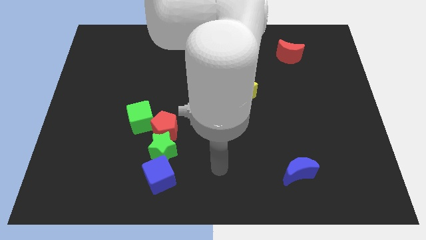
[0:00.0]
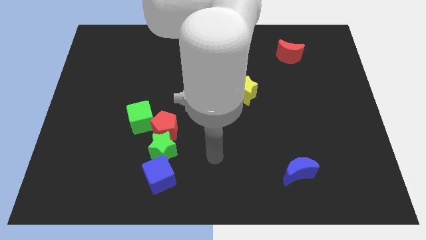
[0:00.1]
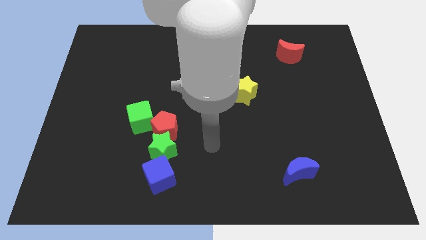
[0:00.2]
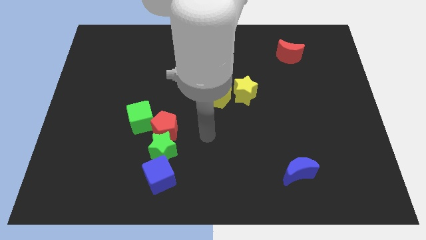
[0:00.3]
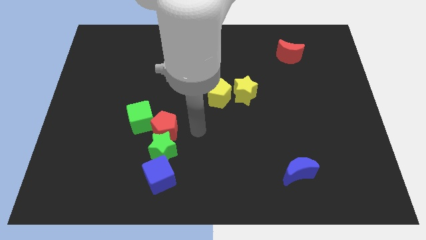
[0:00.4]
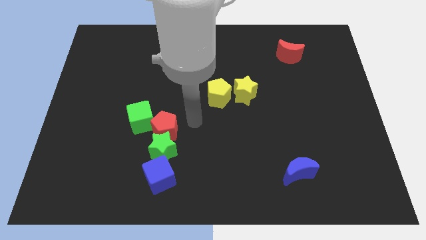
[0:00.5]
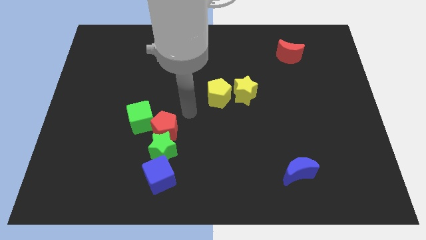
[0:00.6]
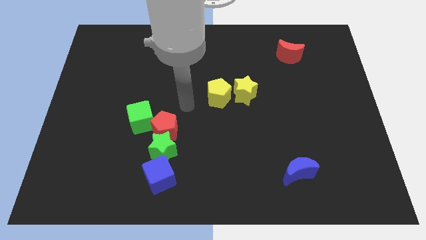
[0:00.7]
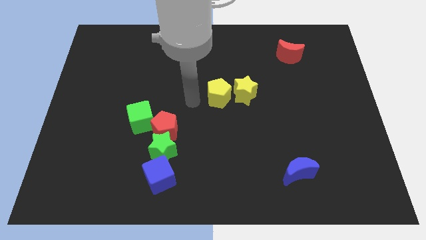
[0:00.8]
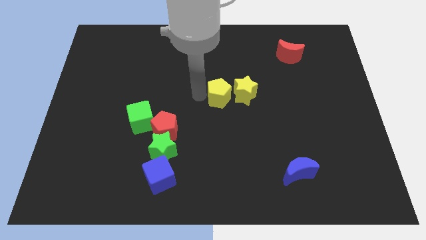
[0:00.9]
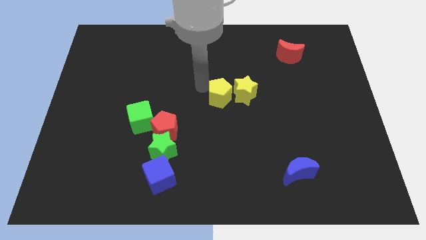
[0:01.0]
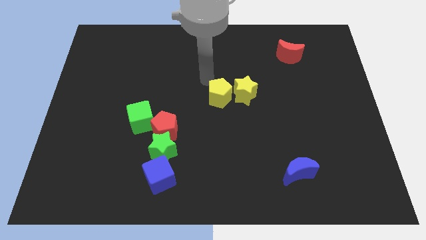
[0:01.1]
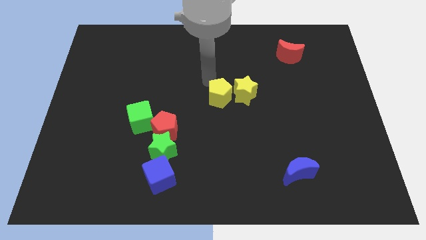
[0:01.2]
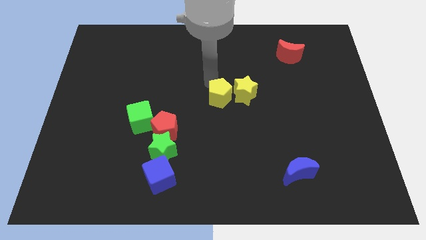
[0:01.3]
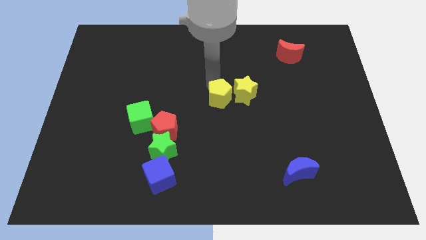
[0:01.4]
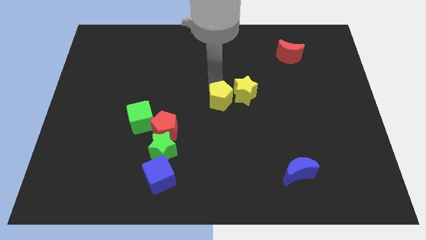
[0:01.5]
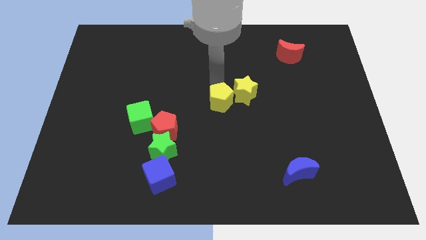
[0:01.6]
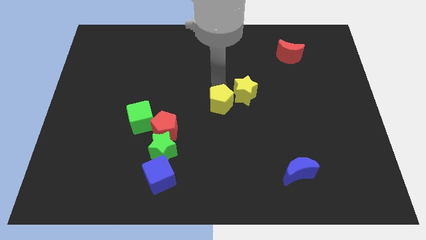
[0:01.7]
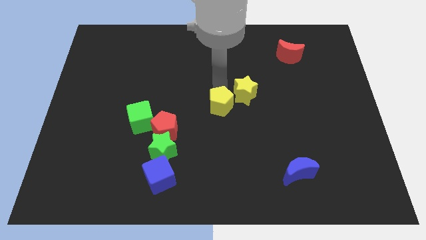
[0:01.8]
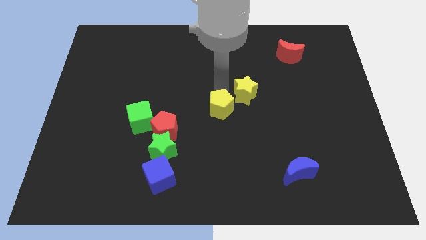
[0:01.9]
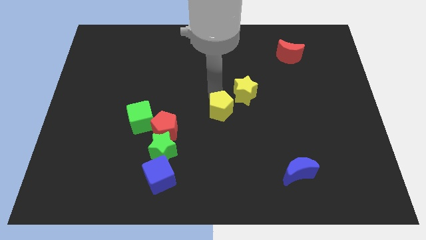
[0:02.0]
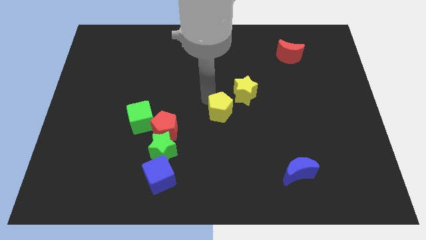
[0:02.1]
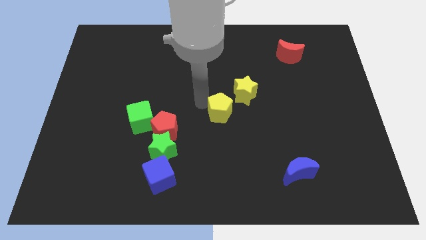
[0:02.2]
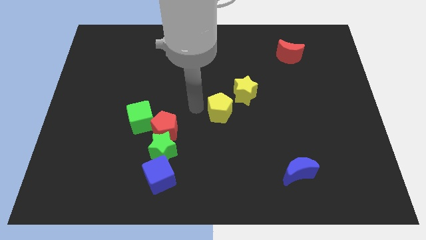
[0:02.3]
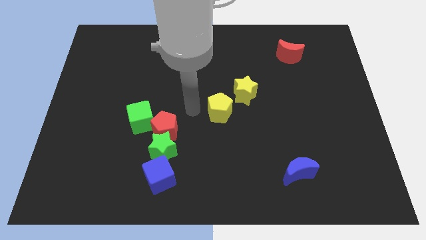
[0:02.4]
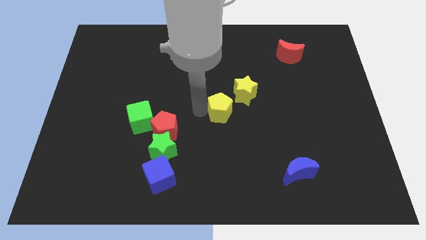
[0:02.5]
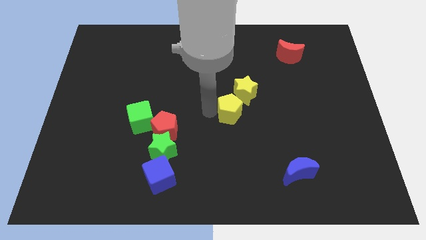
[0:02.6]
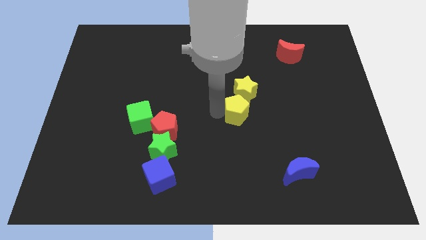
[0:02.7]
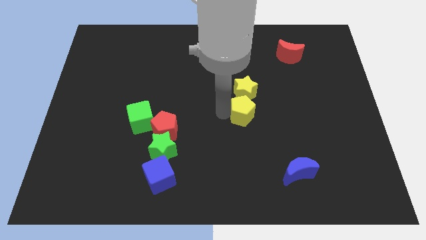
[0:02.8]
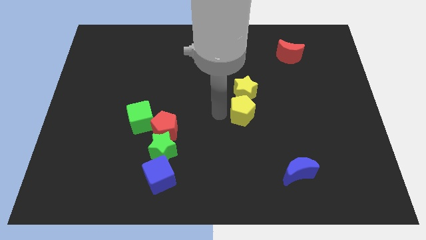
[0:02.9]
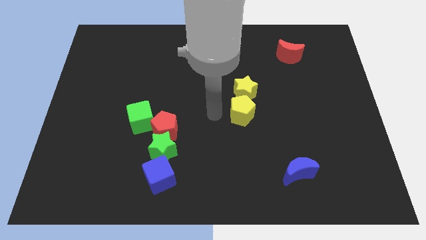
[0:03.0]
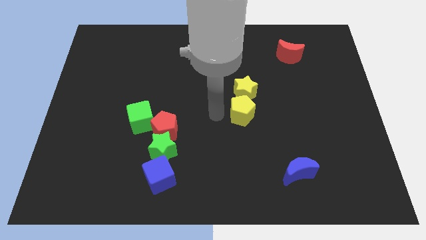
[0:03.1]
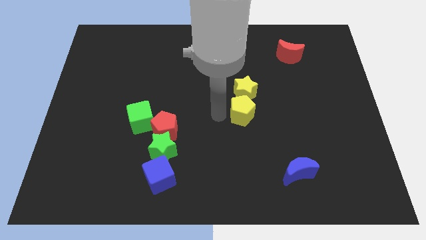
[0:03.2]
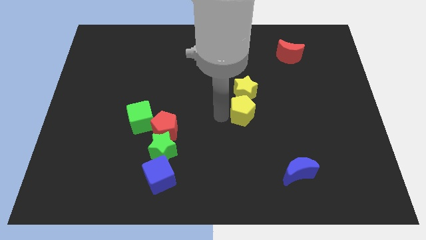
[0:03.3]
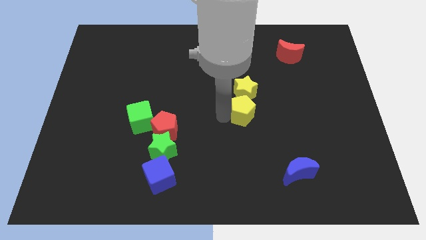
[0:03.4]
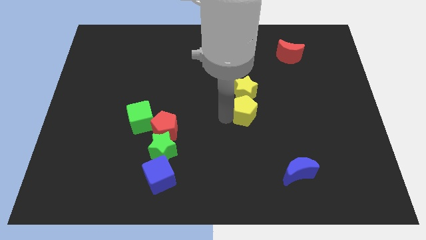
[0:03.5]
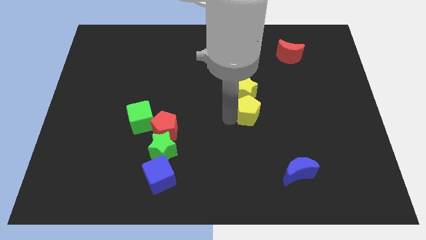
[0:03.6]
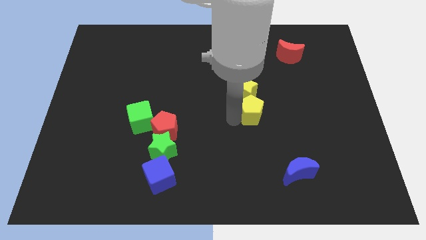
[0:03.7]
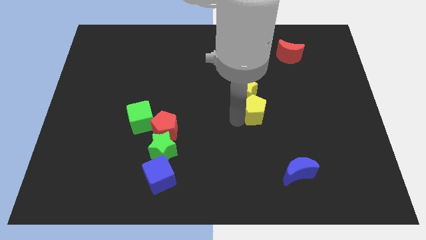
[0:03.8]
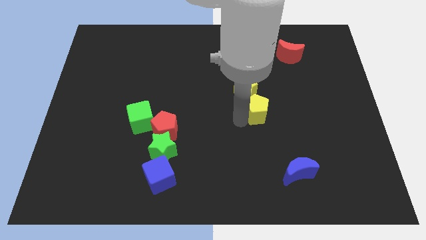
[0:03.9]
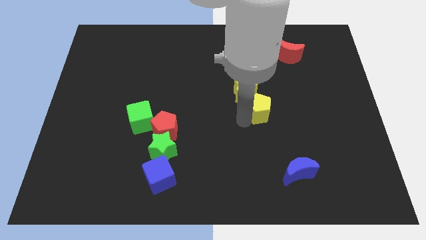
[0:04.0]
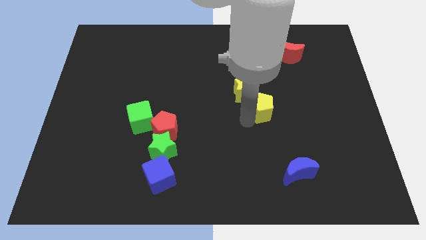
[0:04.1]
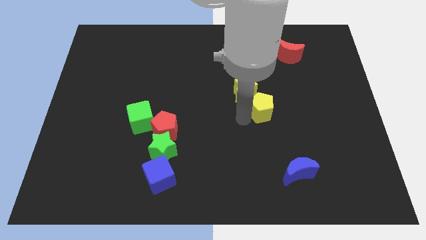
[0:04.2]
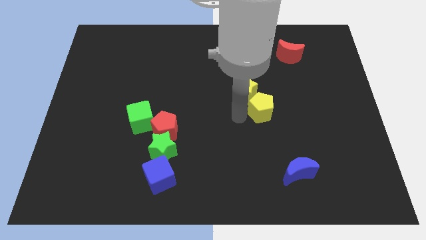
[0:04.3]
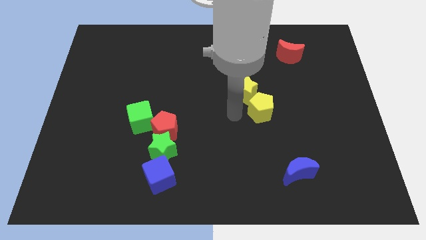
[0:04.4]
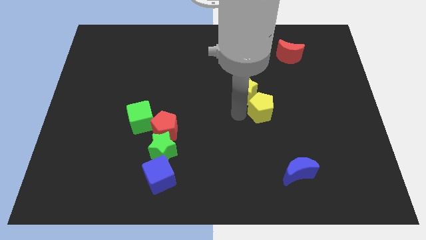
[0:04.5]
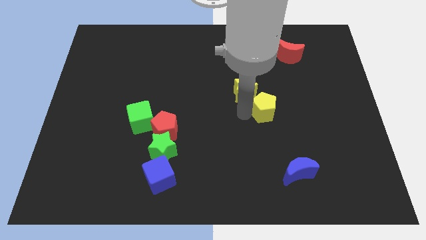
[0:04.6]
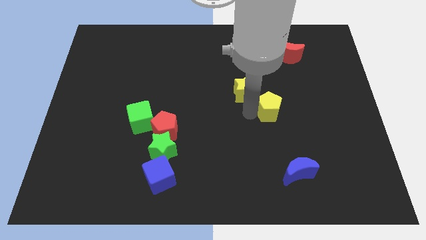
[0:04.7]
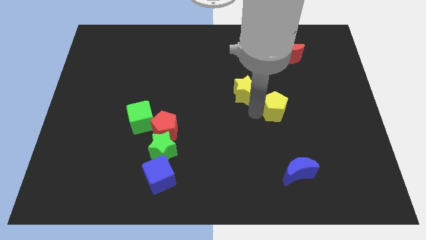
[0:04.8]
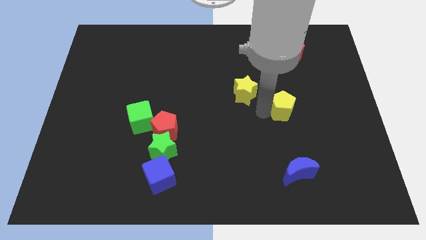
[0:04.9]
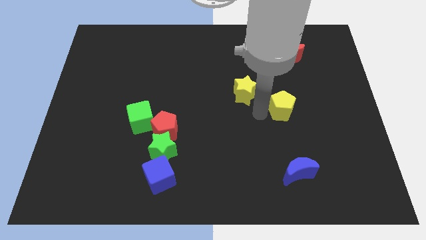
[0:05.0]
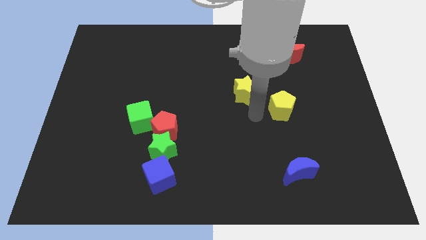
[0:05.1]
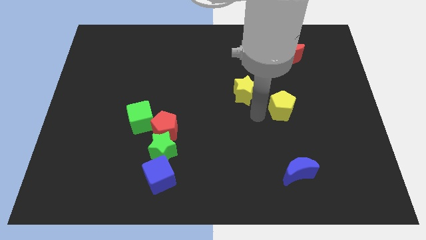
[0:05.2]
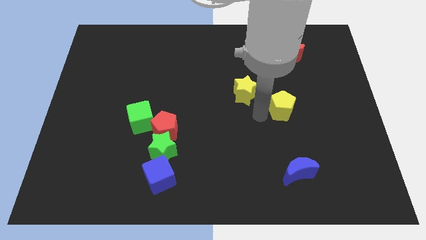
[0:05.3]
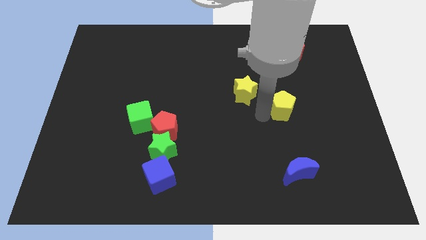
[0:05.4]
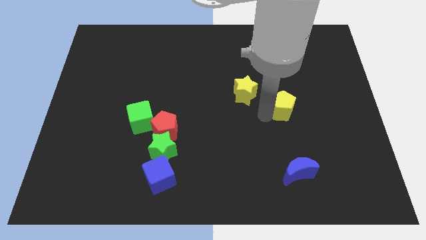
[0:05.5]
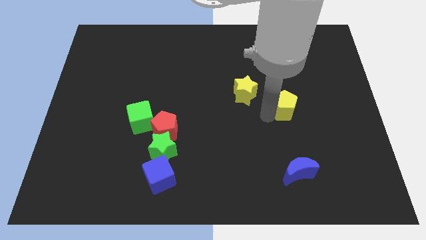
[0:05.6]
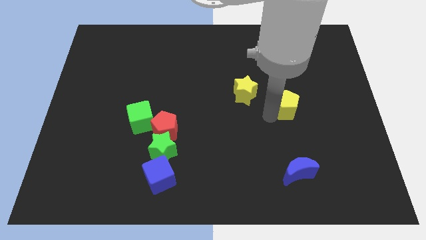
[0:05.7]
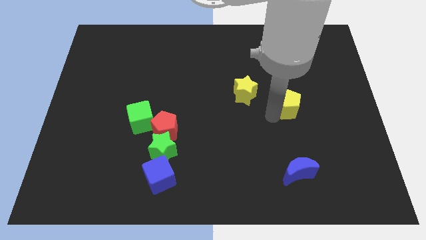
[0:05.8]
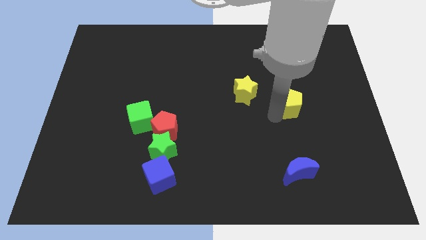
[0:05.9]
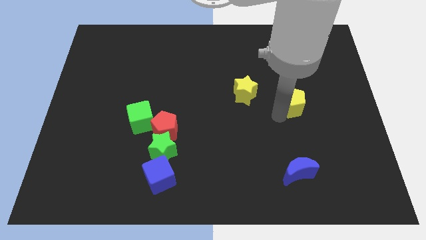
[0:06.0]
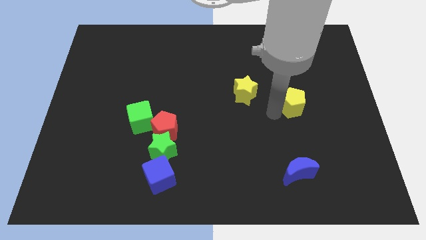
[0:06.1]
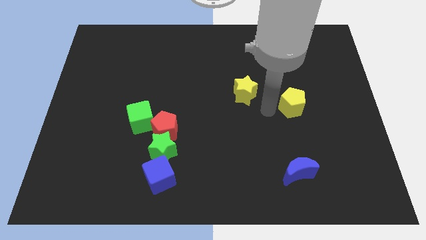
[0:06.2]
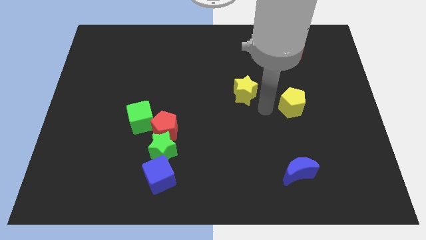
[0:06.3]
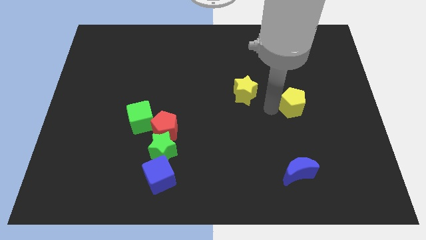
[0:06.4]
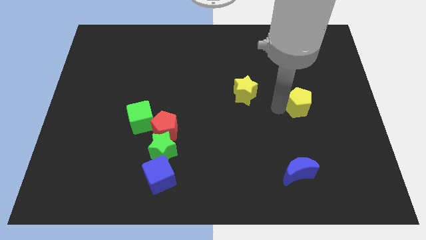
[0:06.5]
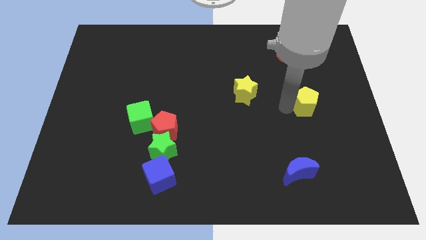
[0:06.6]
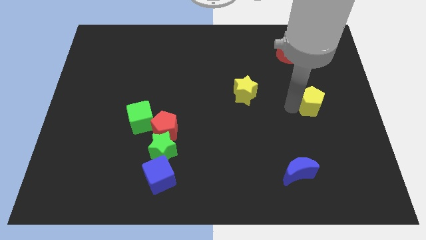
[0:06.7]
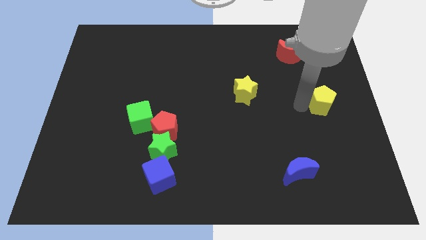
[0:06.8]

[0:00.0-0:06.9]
put the yellow pentagon to the center right
